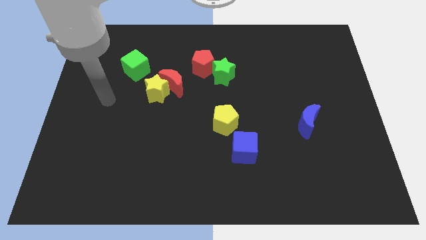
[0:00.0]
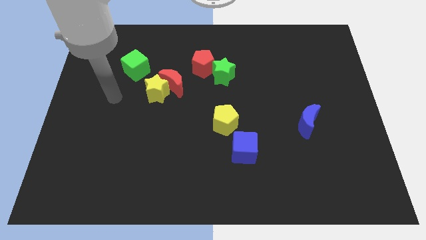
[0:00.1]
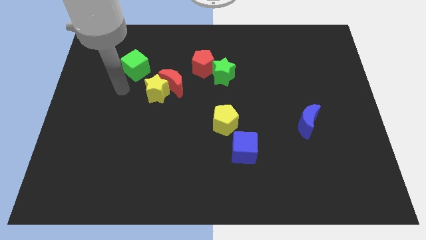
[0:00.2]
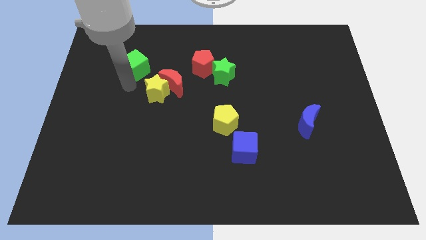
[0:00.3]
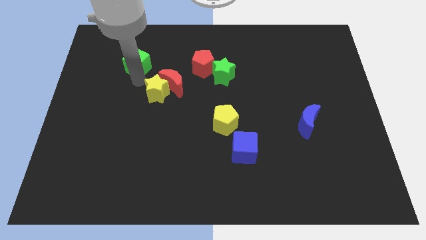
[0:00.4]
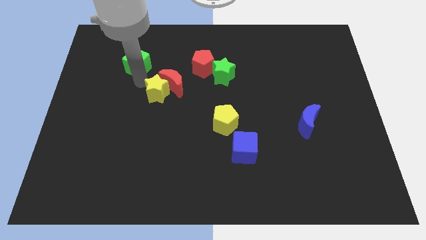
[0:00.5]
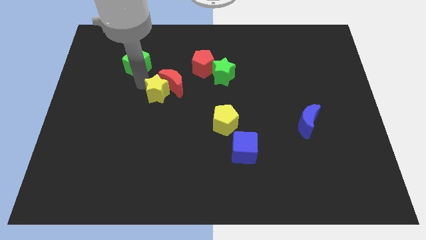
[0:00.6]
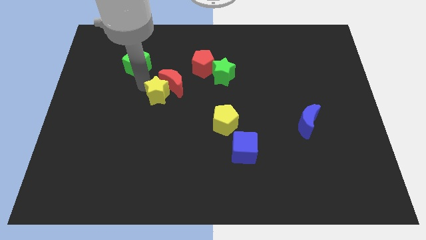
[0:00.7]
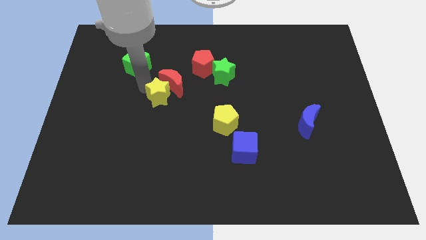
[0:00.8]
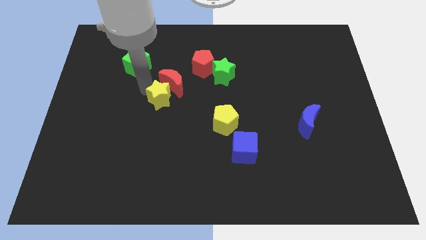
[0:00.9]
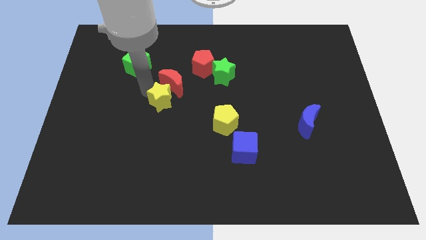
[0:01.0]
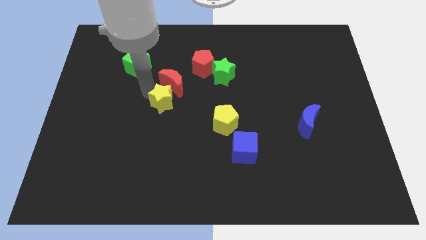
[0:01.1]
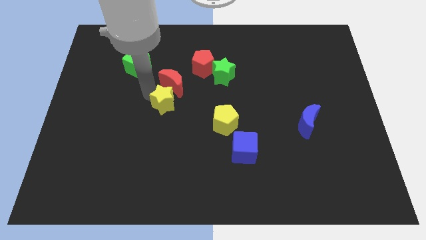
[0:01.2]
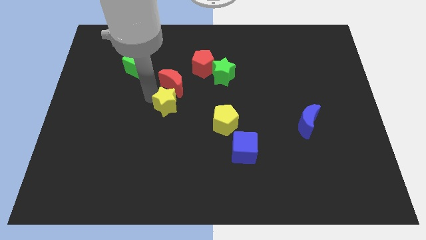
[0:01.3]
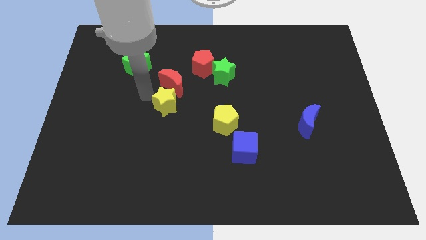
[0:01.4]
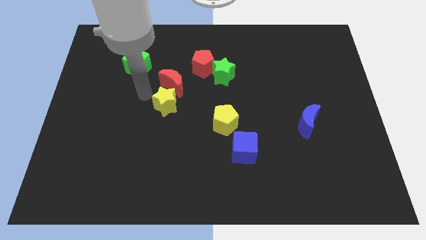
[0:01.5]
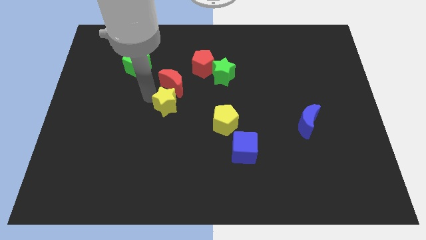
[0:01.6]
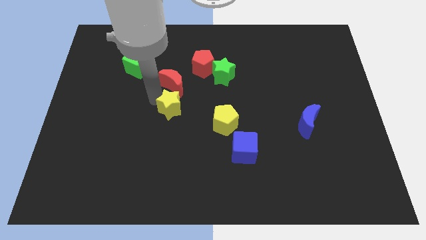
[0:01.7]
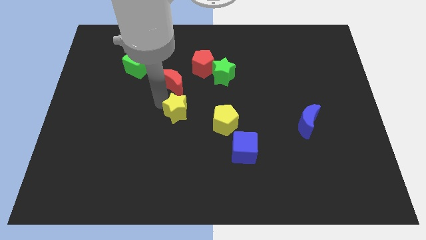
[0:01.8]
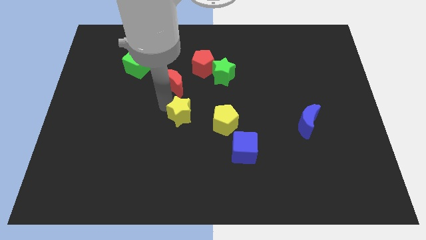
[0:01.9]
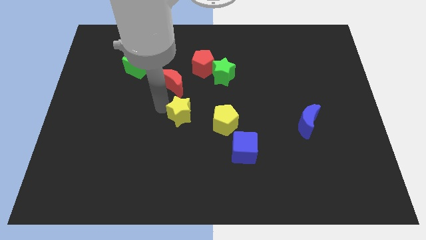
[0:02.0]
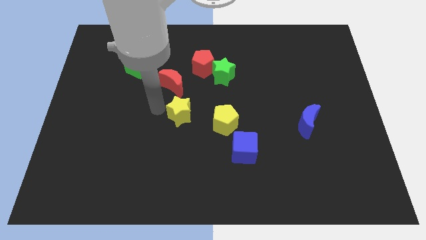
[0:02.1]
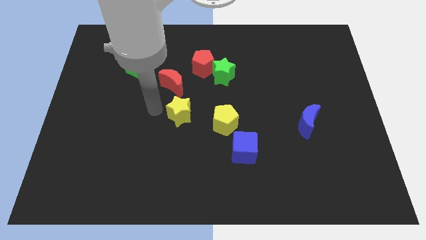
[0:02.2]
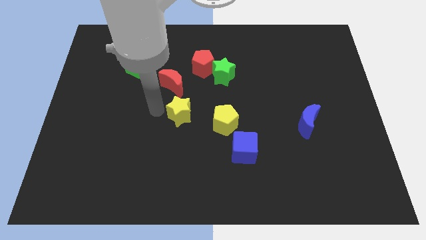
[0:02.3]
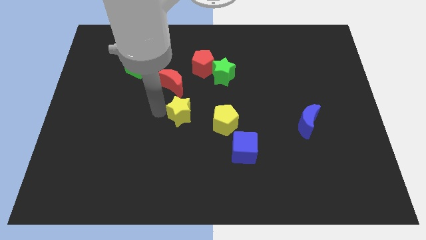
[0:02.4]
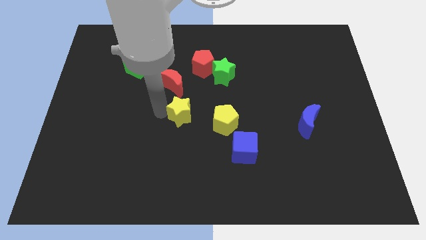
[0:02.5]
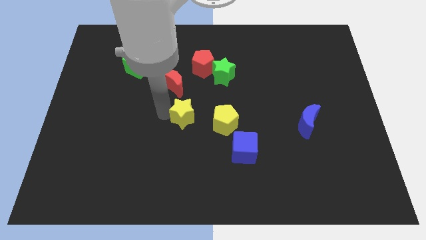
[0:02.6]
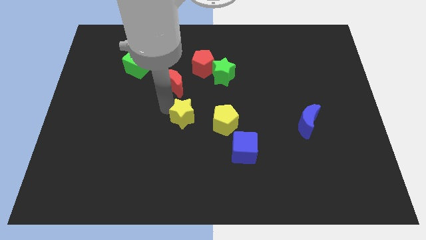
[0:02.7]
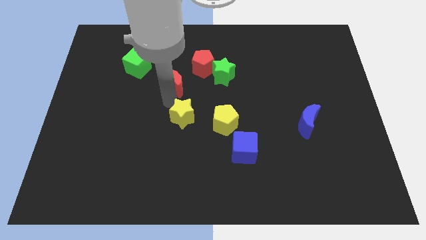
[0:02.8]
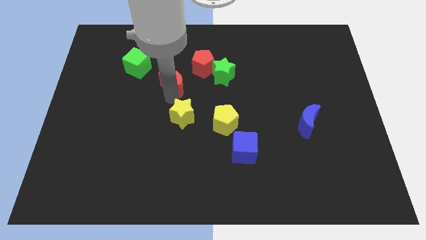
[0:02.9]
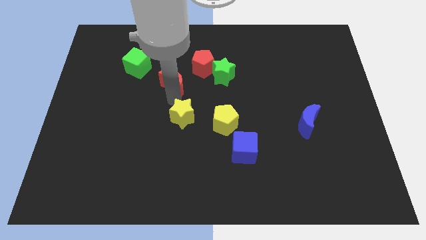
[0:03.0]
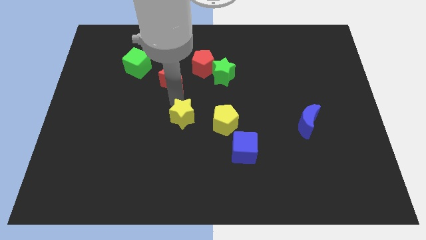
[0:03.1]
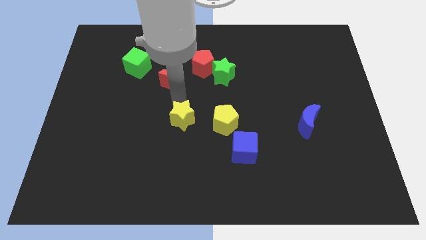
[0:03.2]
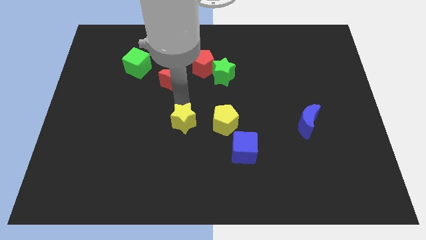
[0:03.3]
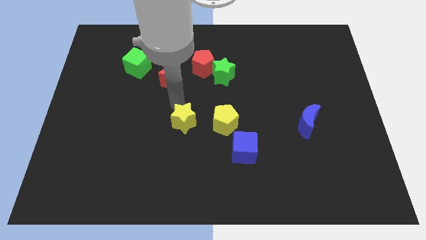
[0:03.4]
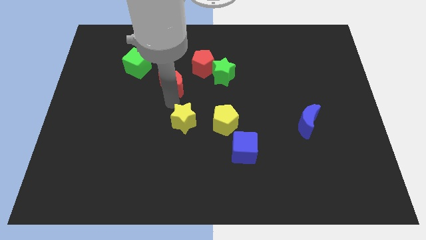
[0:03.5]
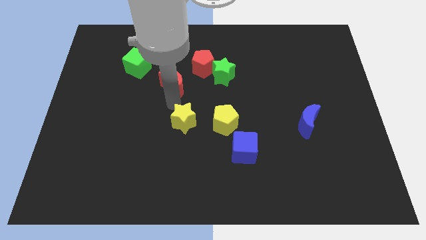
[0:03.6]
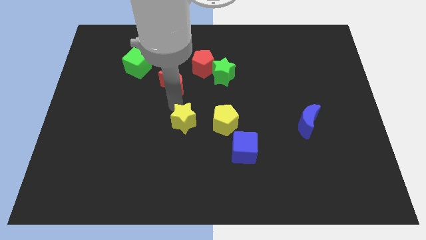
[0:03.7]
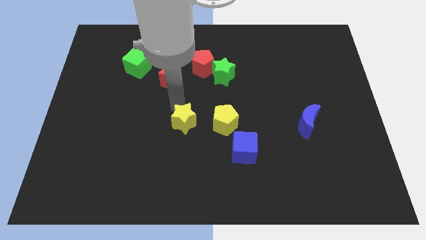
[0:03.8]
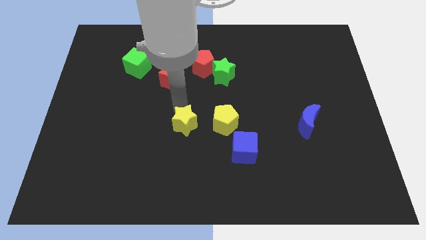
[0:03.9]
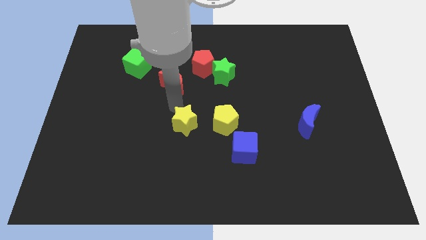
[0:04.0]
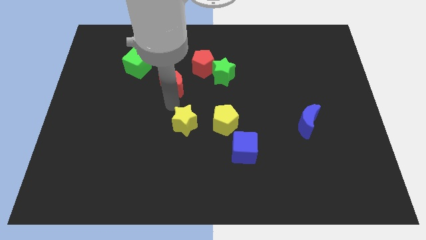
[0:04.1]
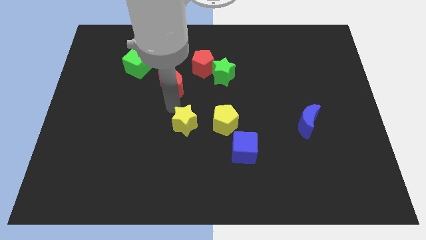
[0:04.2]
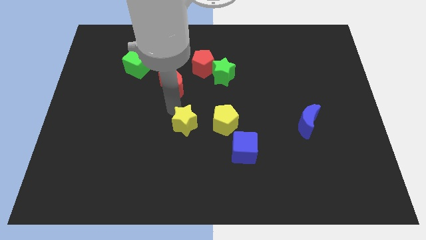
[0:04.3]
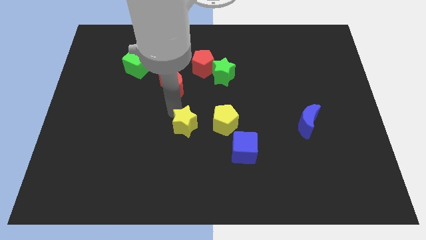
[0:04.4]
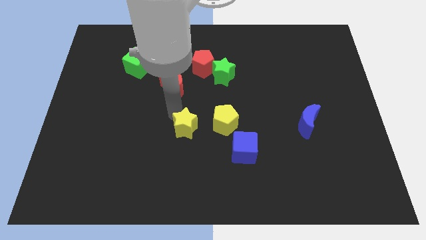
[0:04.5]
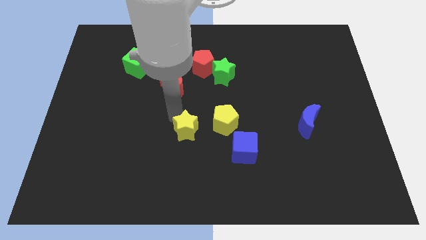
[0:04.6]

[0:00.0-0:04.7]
slide the yellow star to the bottom left of the yellow pentagon

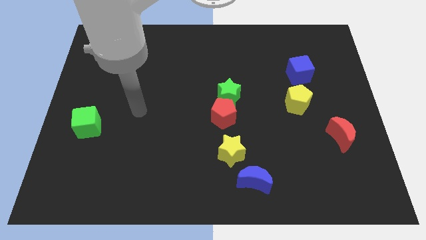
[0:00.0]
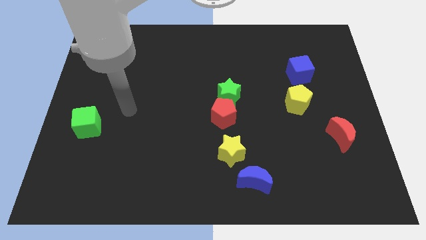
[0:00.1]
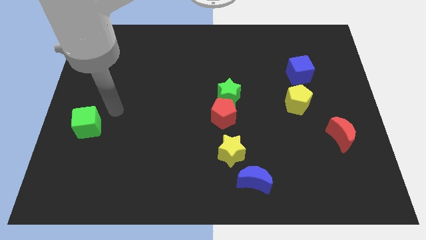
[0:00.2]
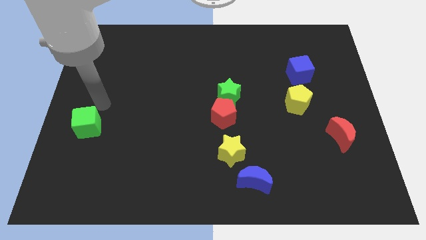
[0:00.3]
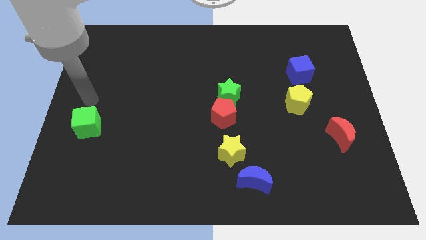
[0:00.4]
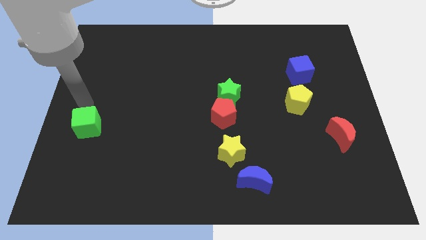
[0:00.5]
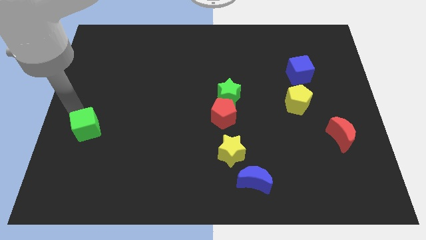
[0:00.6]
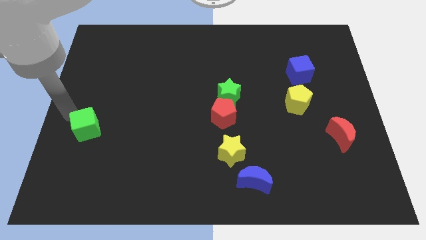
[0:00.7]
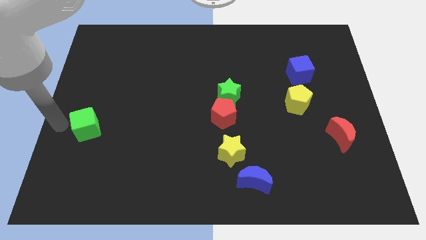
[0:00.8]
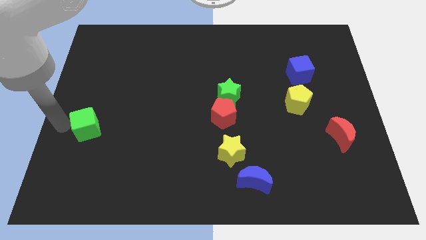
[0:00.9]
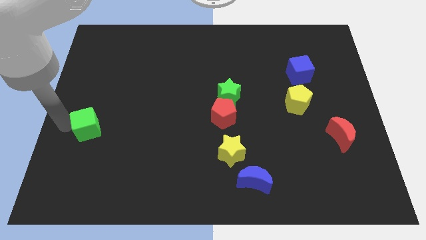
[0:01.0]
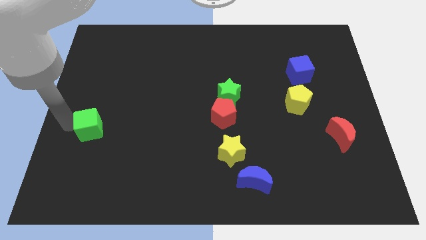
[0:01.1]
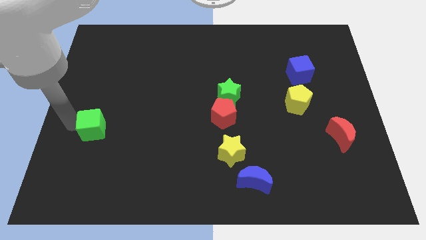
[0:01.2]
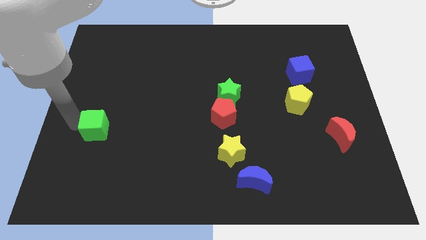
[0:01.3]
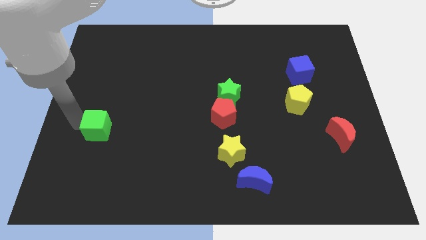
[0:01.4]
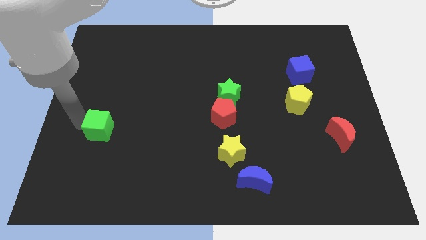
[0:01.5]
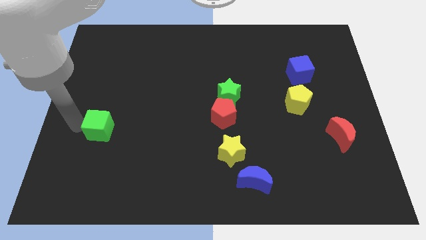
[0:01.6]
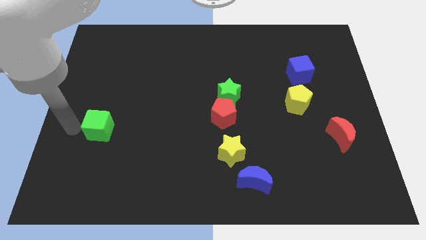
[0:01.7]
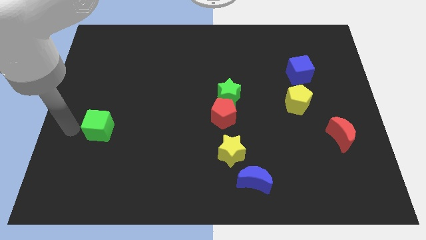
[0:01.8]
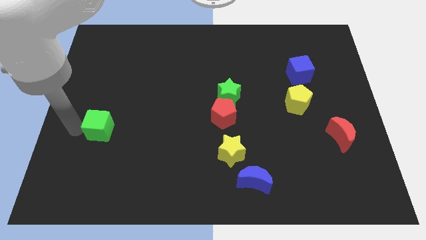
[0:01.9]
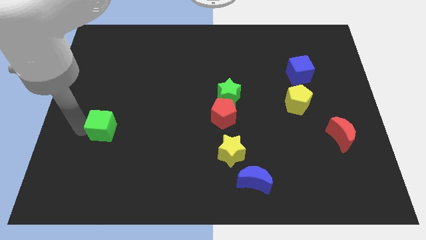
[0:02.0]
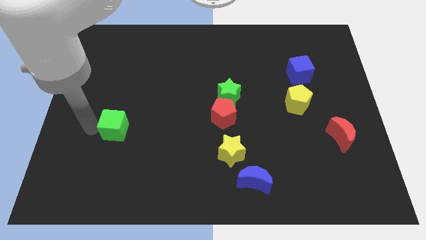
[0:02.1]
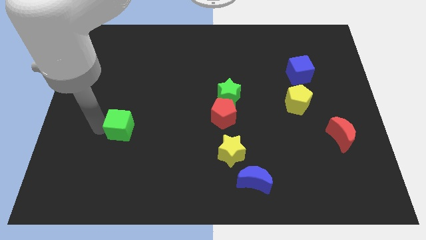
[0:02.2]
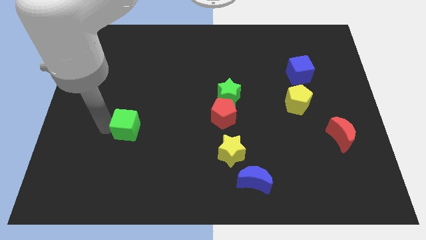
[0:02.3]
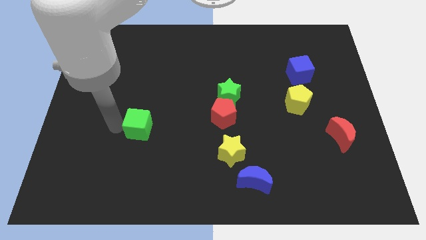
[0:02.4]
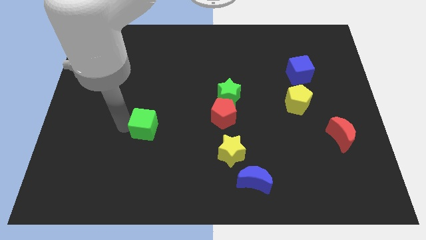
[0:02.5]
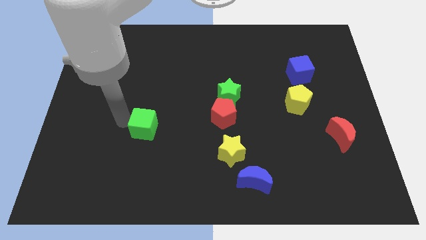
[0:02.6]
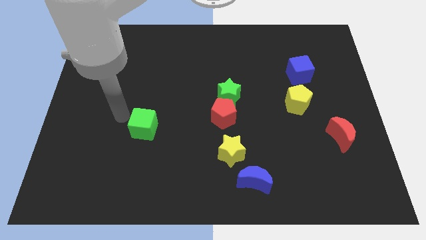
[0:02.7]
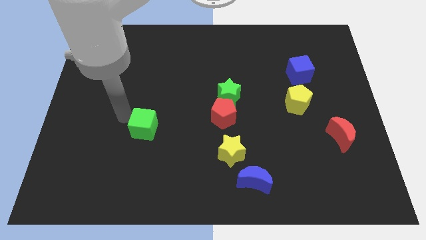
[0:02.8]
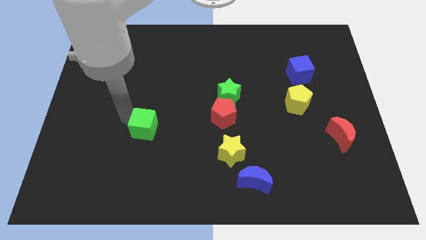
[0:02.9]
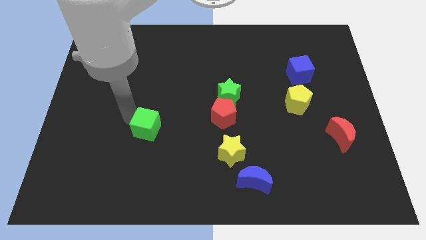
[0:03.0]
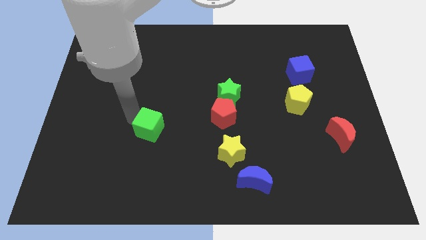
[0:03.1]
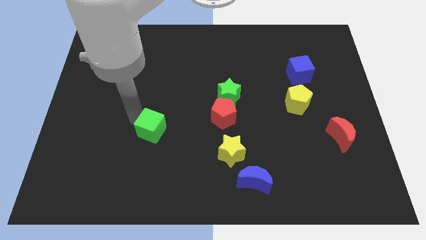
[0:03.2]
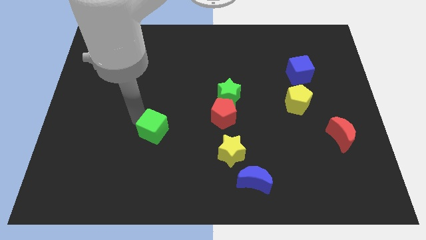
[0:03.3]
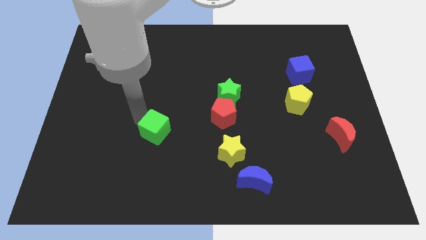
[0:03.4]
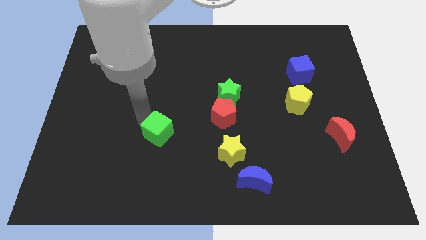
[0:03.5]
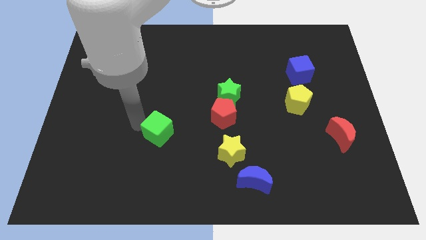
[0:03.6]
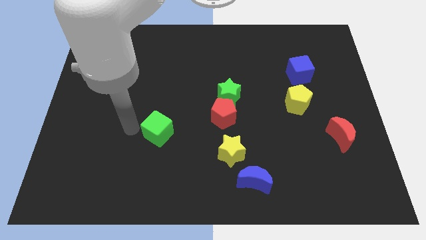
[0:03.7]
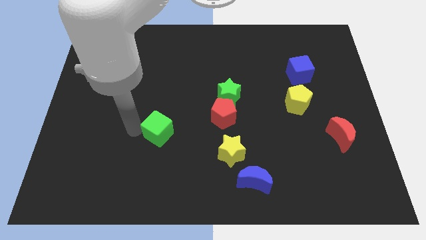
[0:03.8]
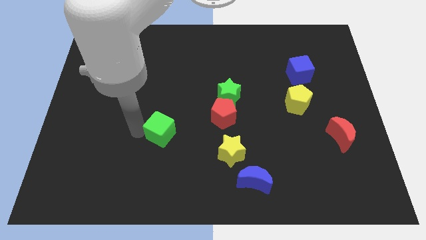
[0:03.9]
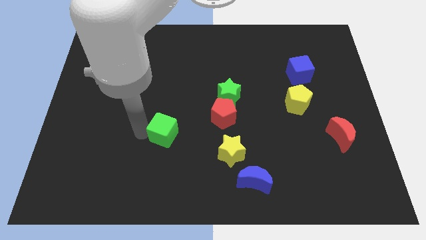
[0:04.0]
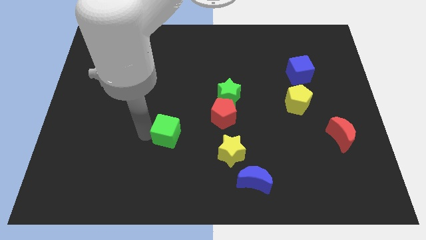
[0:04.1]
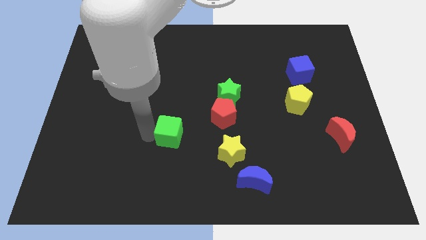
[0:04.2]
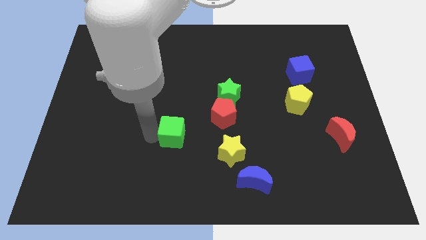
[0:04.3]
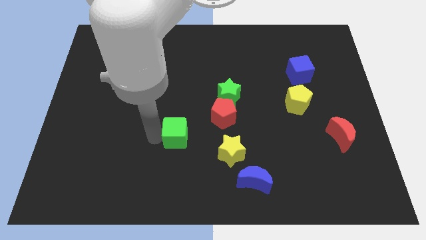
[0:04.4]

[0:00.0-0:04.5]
push the green cube to the bottom left of the red pentagon
